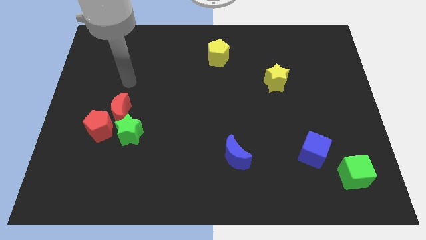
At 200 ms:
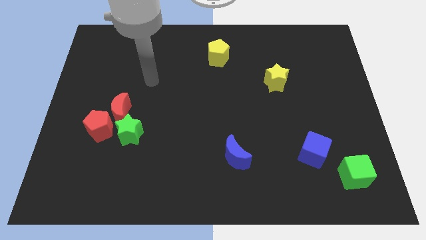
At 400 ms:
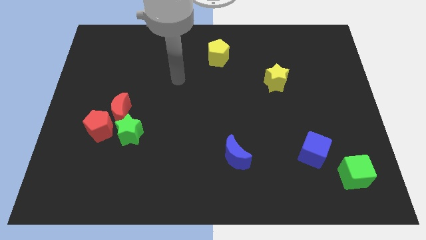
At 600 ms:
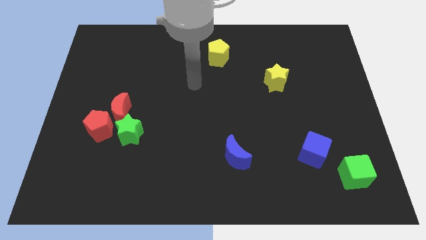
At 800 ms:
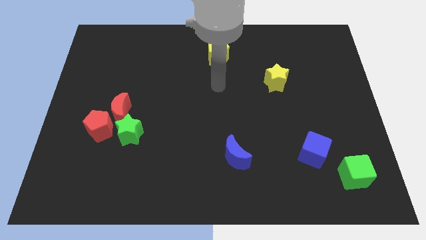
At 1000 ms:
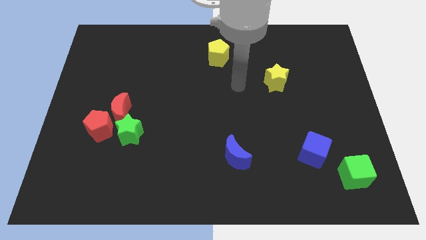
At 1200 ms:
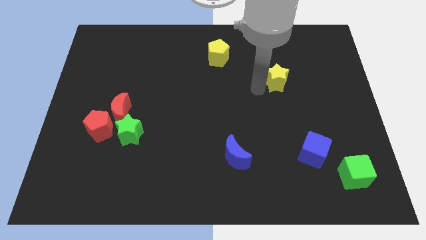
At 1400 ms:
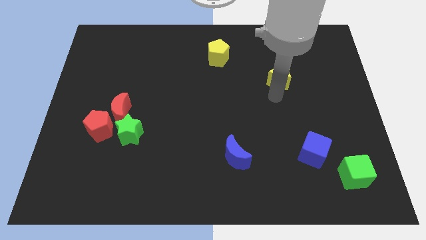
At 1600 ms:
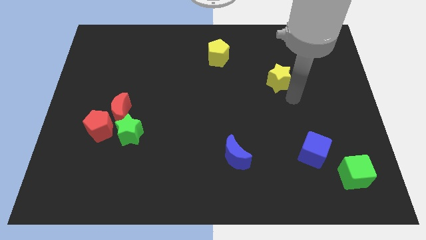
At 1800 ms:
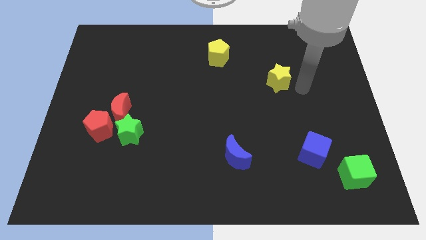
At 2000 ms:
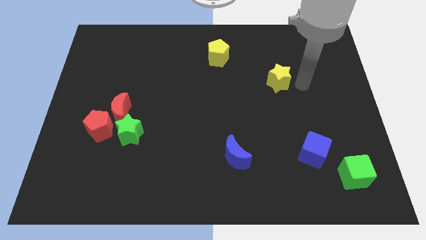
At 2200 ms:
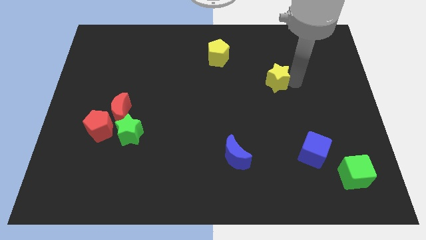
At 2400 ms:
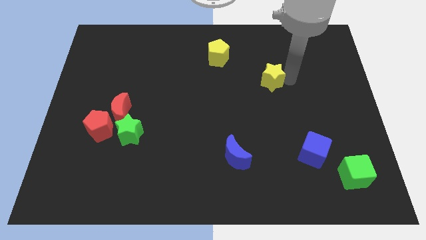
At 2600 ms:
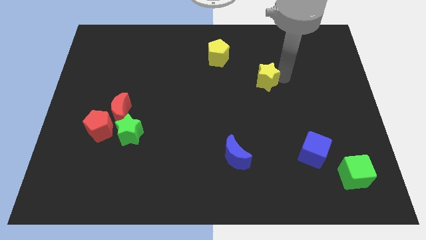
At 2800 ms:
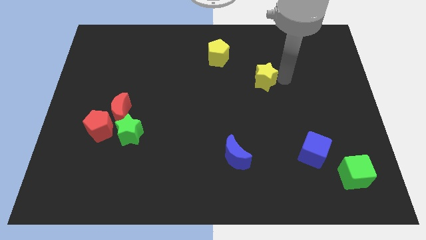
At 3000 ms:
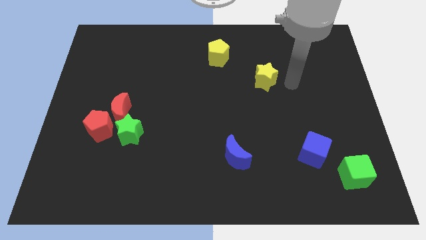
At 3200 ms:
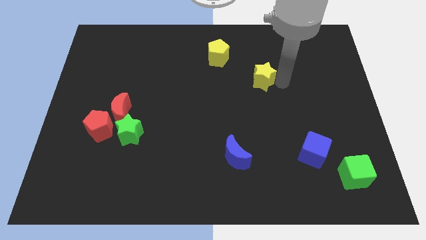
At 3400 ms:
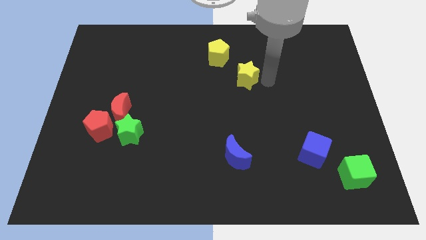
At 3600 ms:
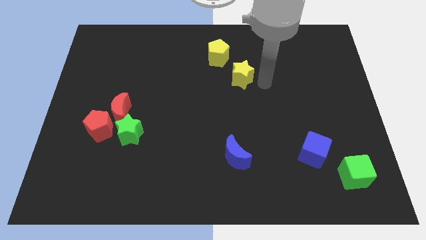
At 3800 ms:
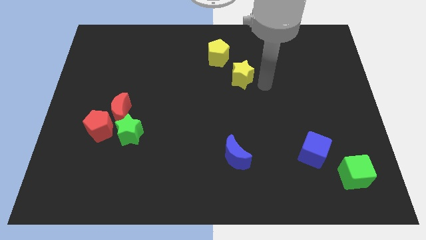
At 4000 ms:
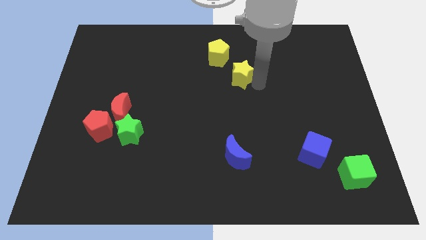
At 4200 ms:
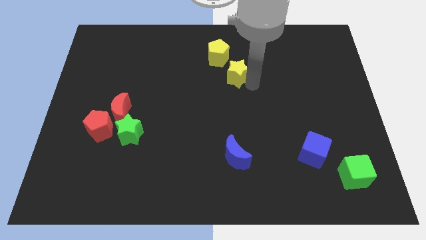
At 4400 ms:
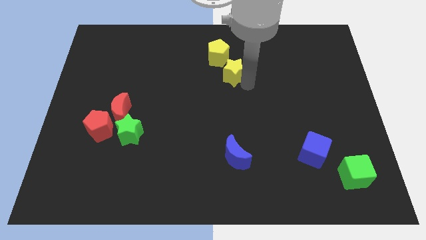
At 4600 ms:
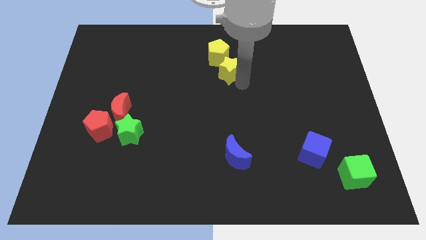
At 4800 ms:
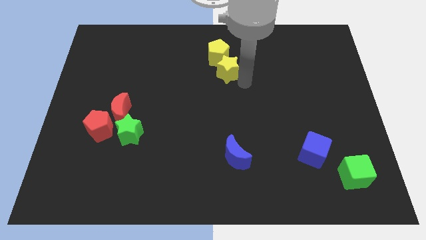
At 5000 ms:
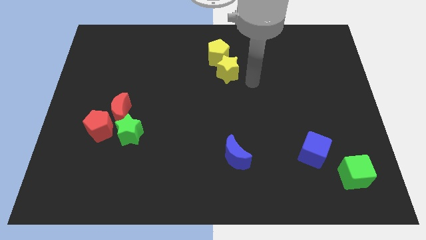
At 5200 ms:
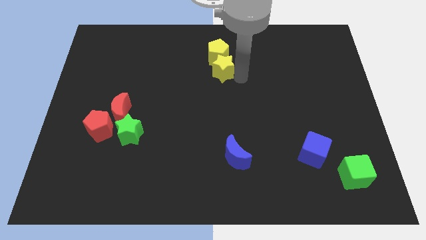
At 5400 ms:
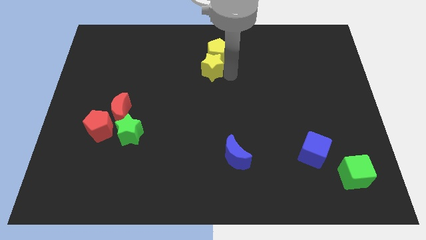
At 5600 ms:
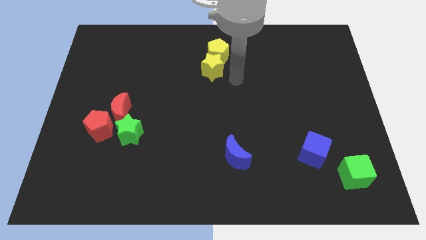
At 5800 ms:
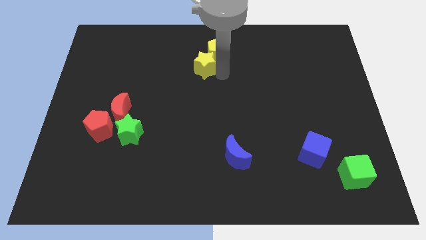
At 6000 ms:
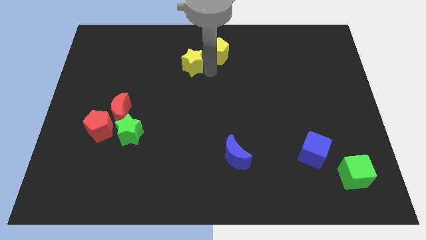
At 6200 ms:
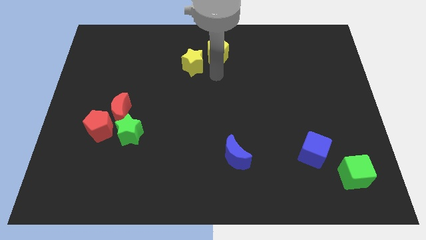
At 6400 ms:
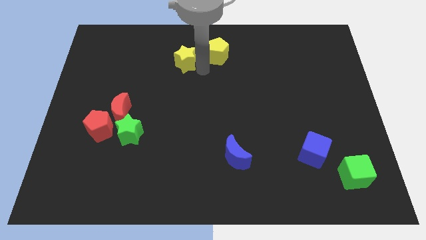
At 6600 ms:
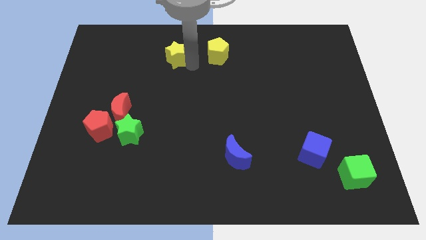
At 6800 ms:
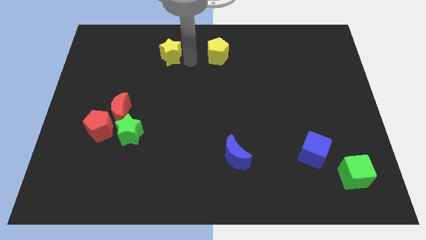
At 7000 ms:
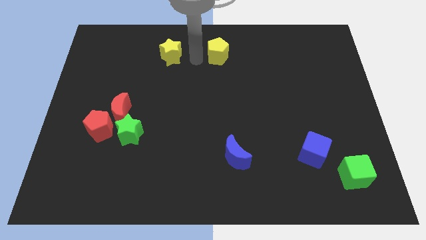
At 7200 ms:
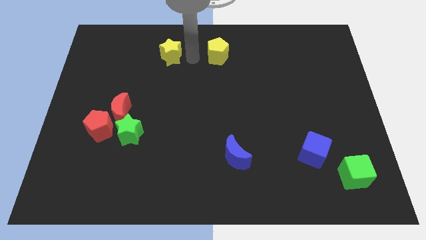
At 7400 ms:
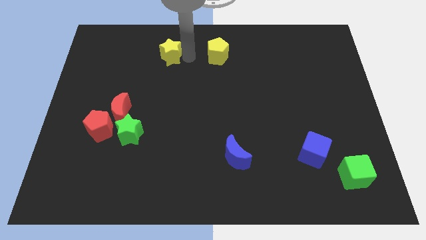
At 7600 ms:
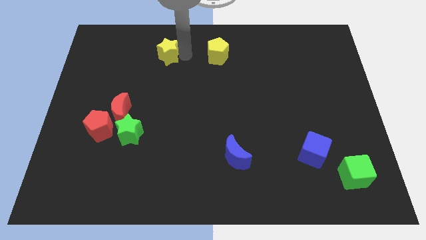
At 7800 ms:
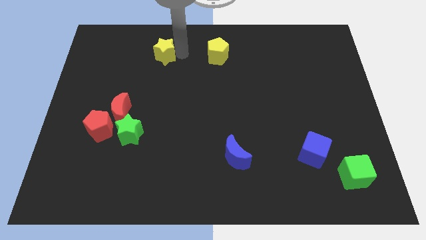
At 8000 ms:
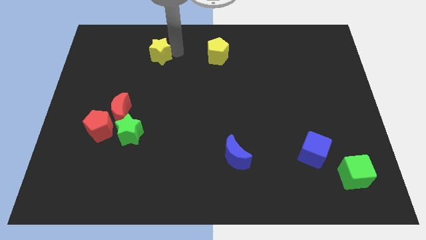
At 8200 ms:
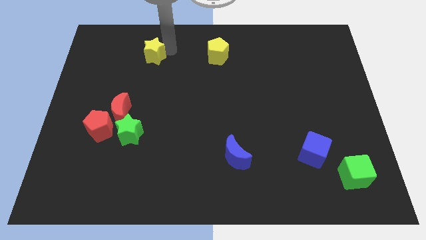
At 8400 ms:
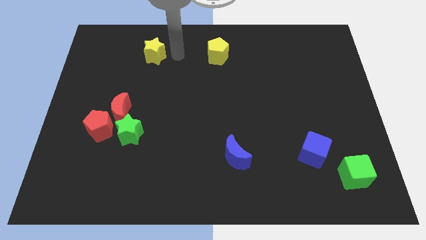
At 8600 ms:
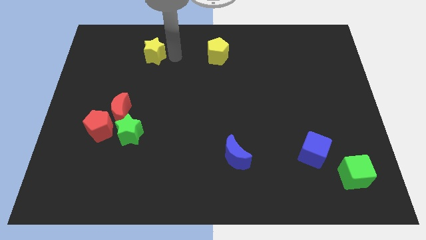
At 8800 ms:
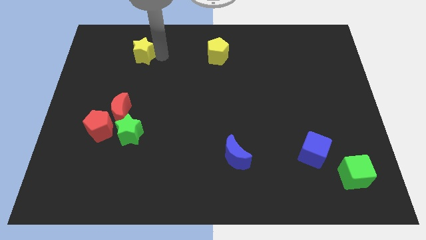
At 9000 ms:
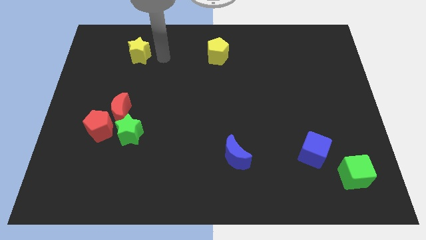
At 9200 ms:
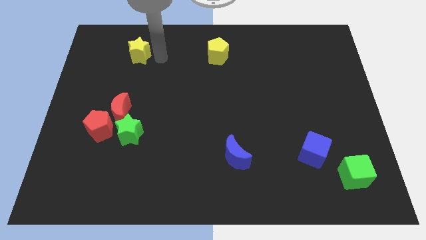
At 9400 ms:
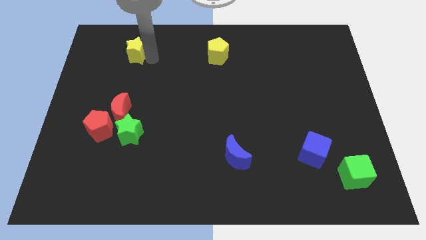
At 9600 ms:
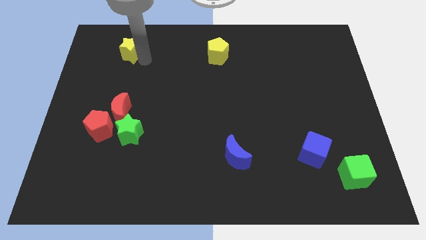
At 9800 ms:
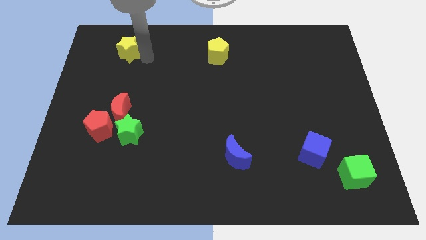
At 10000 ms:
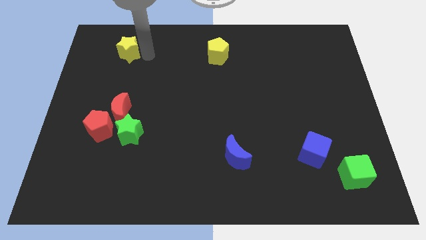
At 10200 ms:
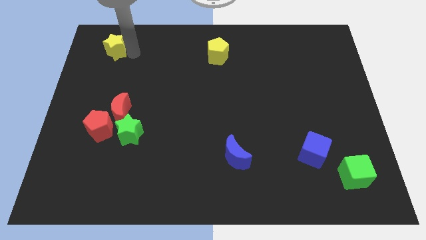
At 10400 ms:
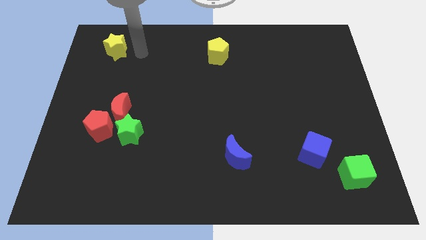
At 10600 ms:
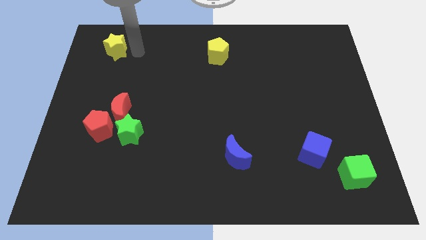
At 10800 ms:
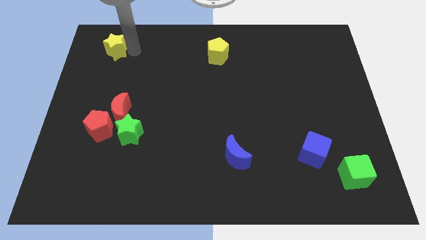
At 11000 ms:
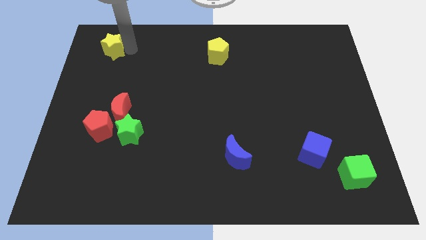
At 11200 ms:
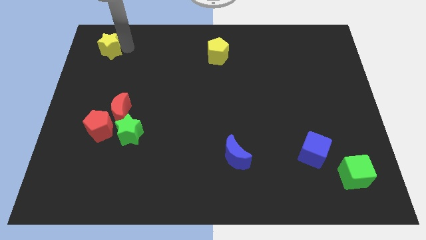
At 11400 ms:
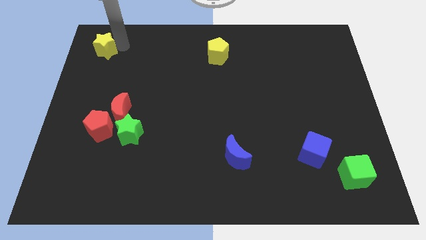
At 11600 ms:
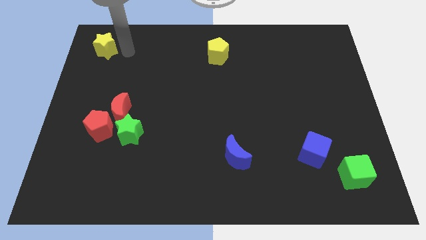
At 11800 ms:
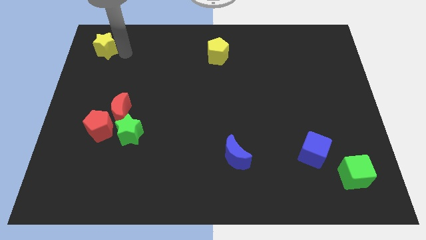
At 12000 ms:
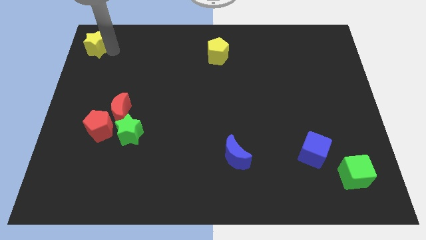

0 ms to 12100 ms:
put the yellow star to the top left
